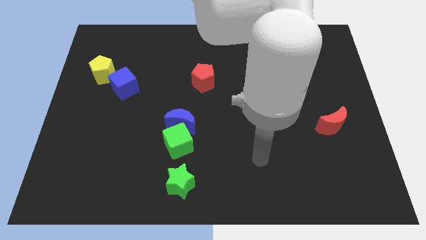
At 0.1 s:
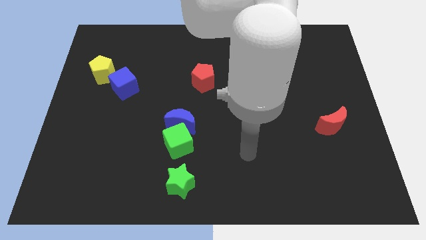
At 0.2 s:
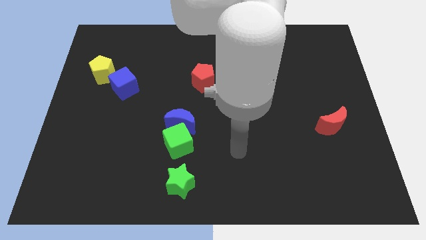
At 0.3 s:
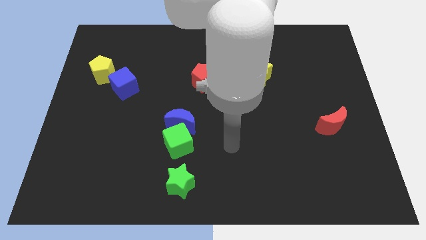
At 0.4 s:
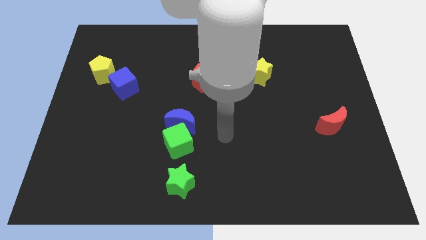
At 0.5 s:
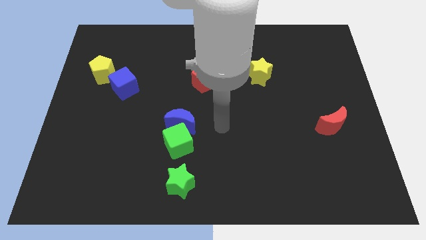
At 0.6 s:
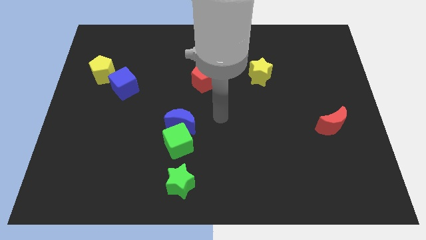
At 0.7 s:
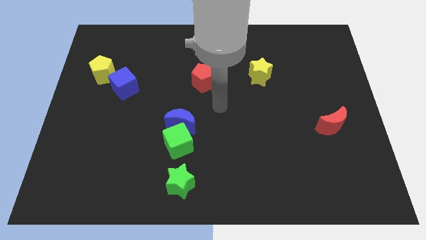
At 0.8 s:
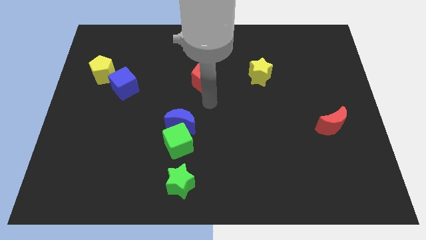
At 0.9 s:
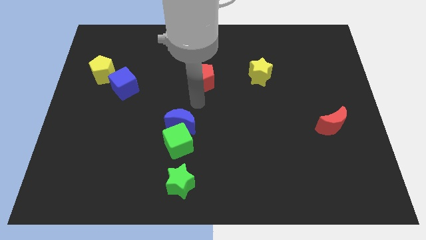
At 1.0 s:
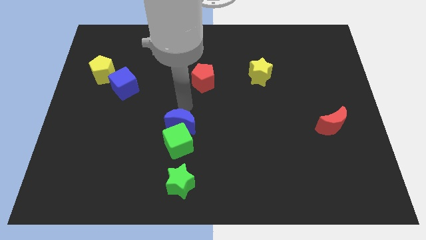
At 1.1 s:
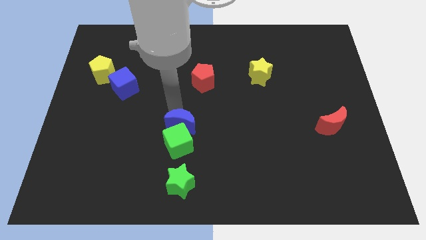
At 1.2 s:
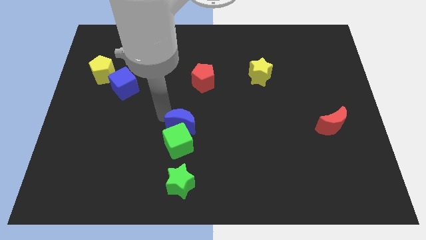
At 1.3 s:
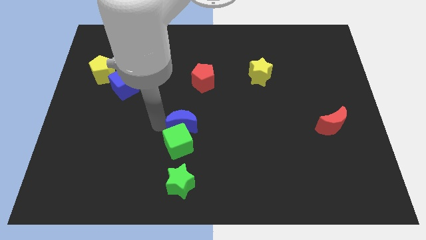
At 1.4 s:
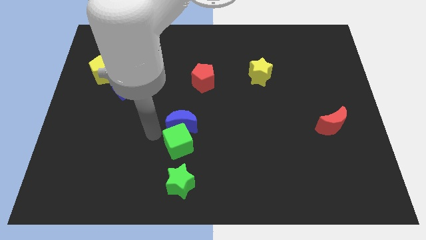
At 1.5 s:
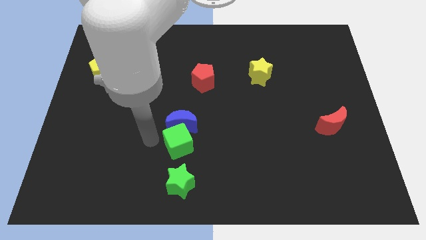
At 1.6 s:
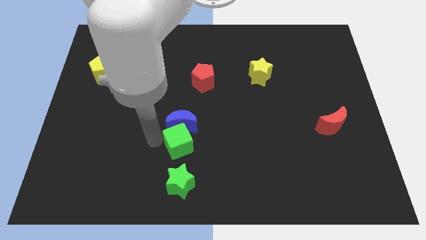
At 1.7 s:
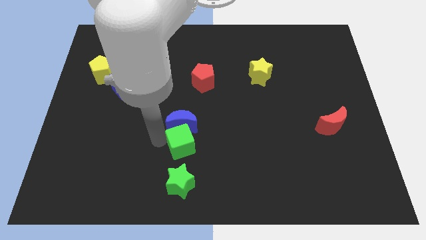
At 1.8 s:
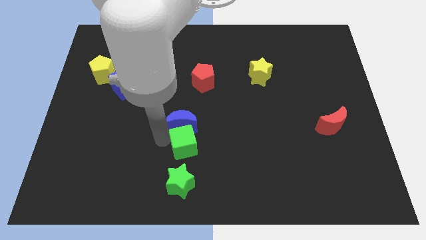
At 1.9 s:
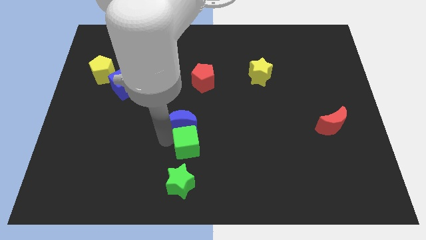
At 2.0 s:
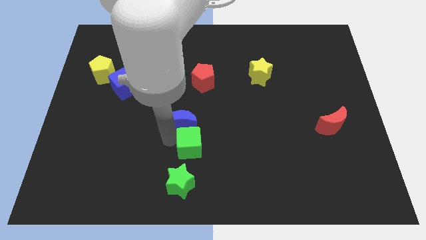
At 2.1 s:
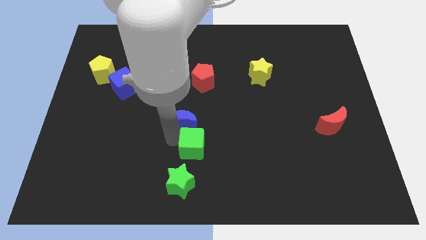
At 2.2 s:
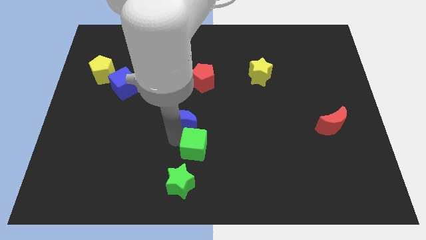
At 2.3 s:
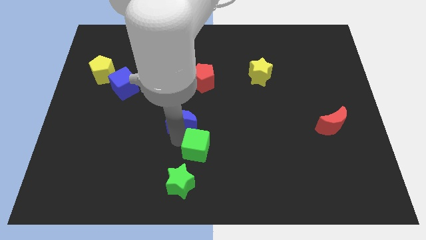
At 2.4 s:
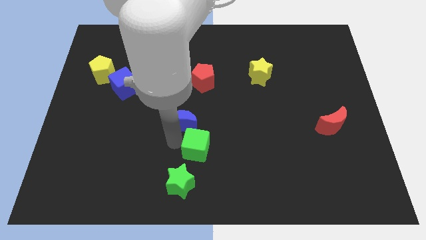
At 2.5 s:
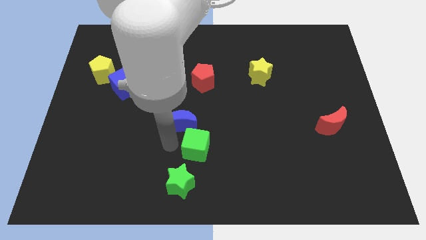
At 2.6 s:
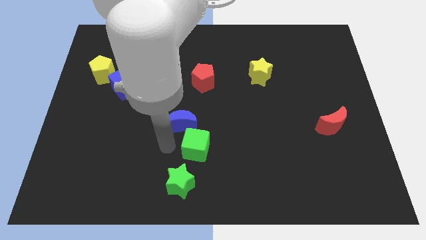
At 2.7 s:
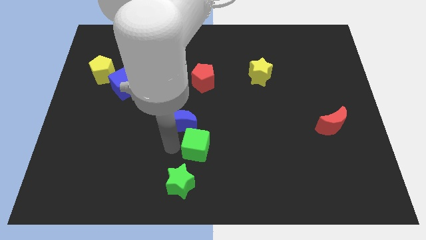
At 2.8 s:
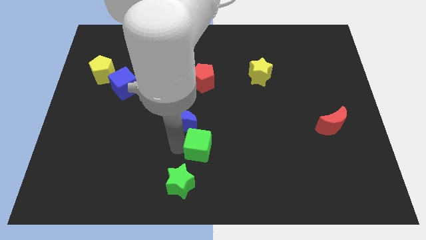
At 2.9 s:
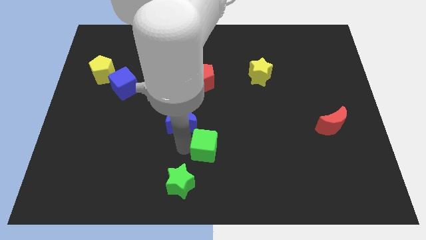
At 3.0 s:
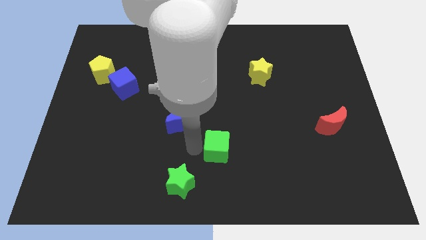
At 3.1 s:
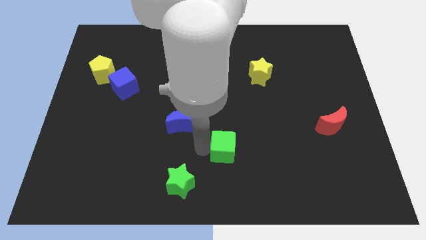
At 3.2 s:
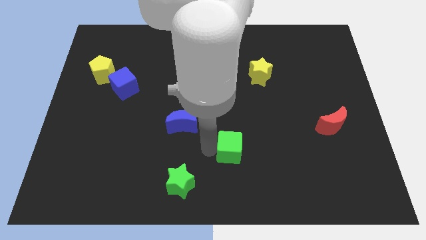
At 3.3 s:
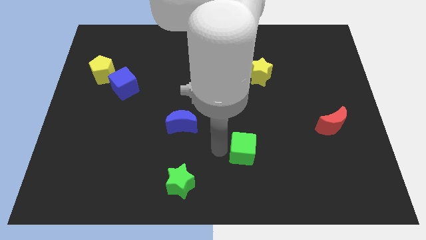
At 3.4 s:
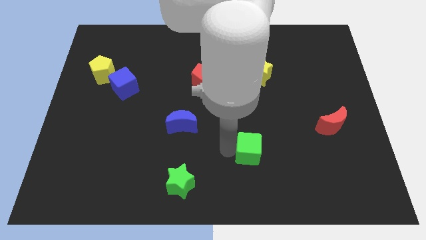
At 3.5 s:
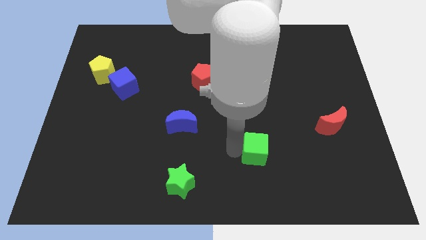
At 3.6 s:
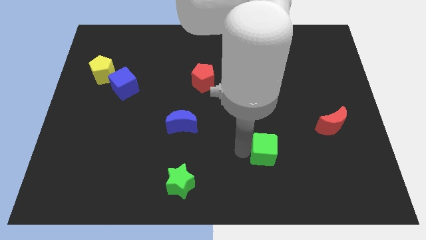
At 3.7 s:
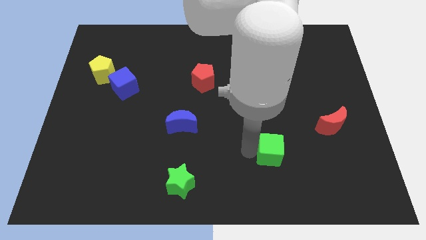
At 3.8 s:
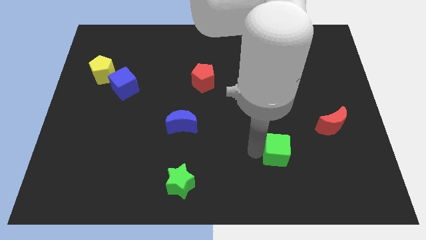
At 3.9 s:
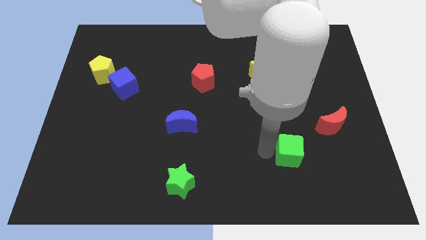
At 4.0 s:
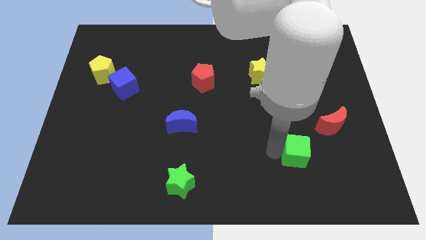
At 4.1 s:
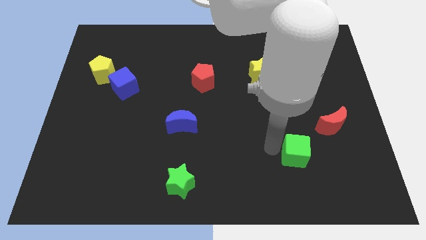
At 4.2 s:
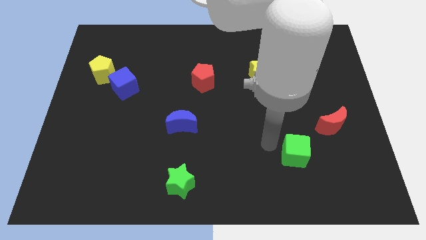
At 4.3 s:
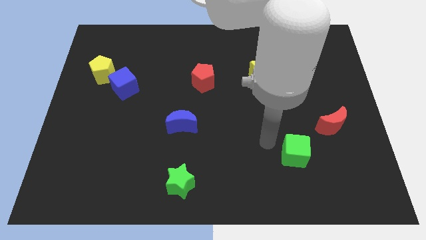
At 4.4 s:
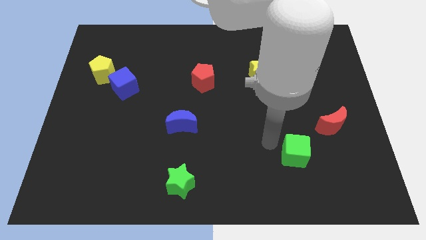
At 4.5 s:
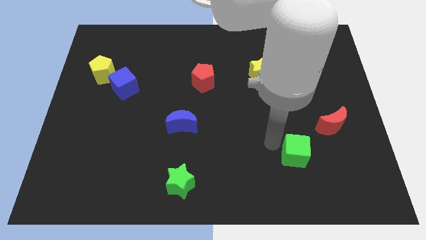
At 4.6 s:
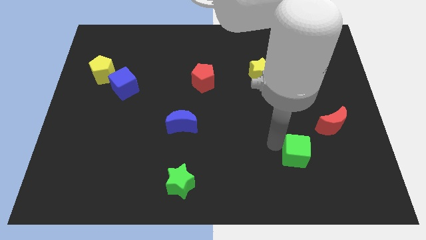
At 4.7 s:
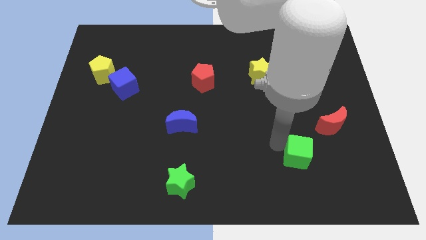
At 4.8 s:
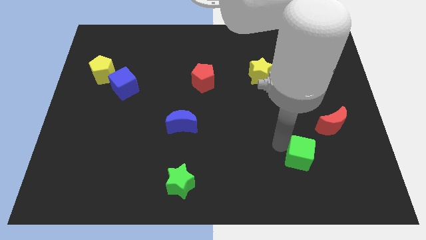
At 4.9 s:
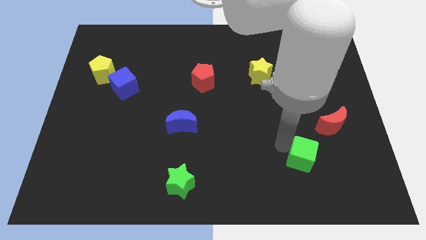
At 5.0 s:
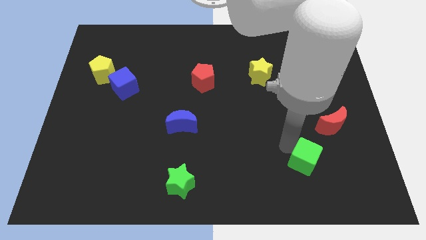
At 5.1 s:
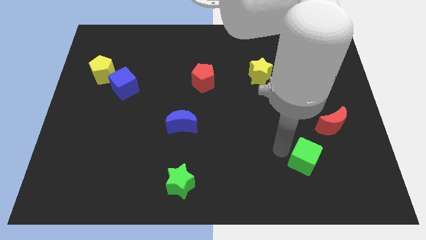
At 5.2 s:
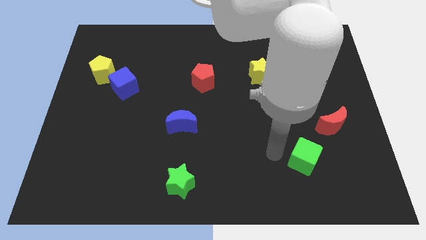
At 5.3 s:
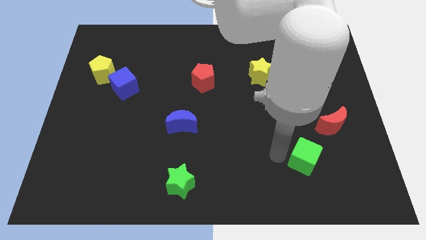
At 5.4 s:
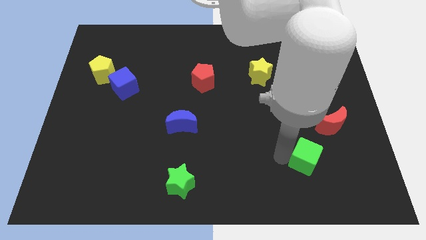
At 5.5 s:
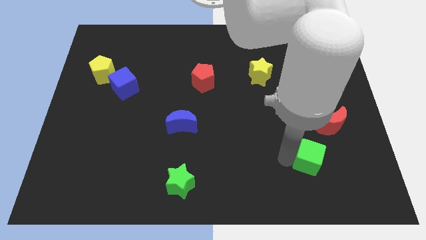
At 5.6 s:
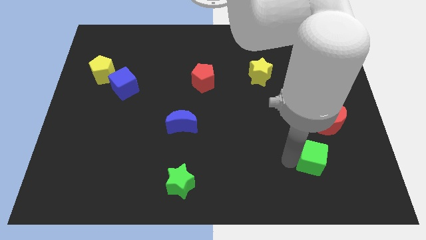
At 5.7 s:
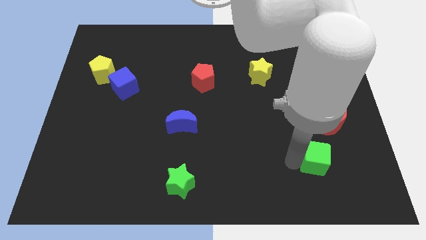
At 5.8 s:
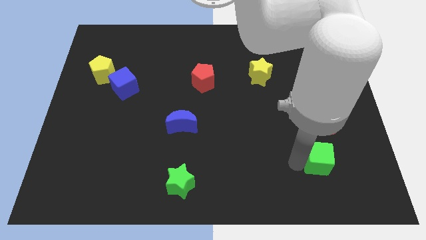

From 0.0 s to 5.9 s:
move the green cube to the bottom of the red moon

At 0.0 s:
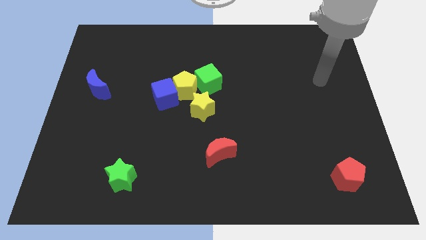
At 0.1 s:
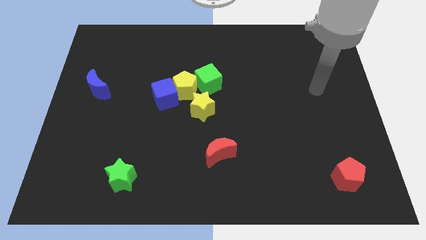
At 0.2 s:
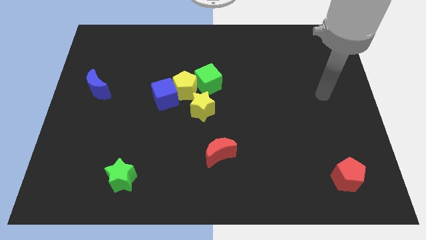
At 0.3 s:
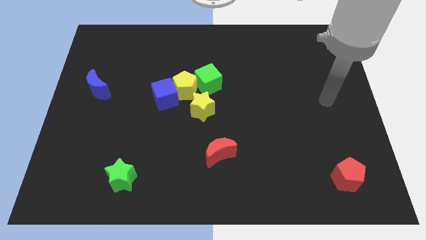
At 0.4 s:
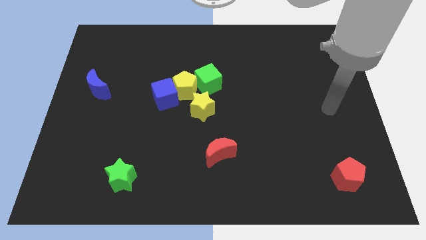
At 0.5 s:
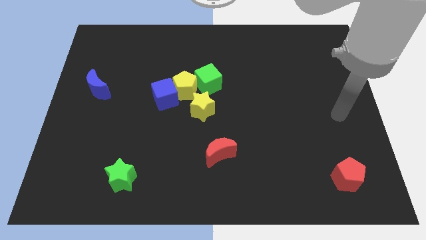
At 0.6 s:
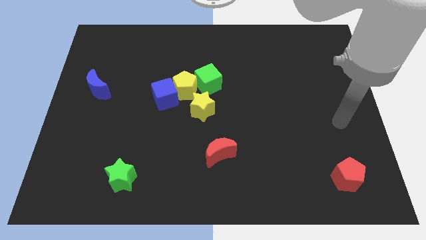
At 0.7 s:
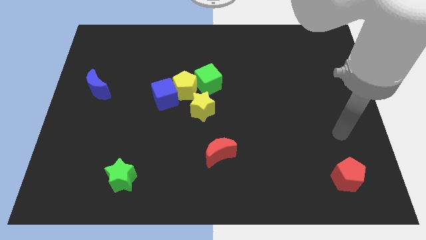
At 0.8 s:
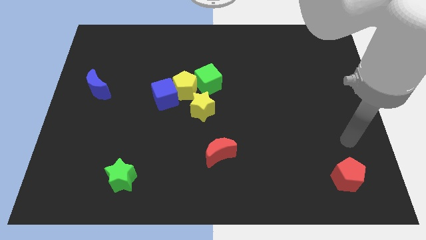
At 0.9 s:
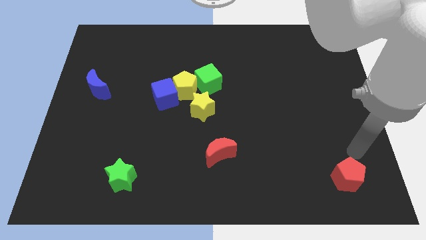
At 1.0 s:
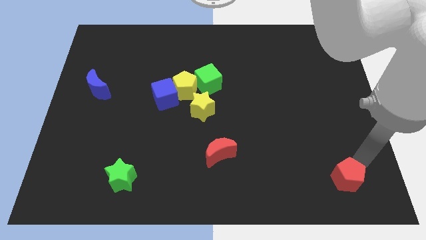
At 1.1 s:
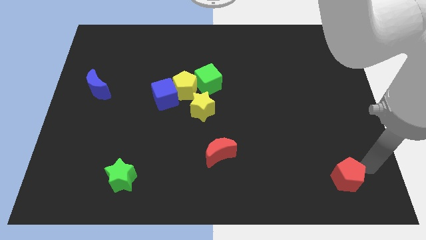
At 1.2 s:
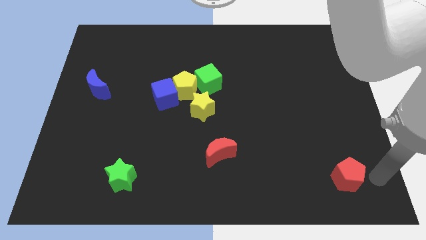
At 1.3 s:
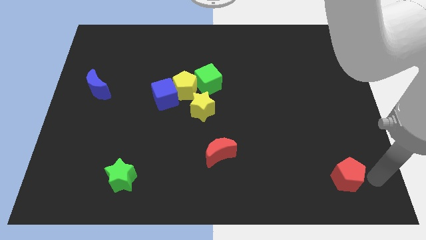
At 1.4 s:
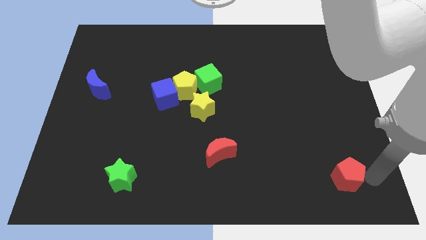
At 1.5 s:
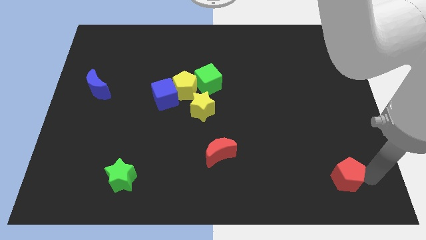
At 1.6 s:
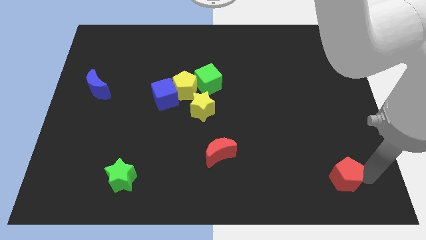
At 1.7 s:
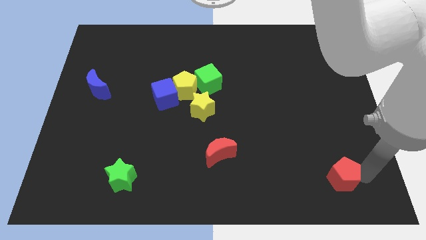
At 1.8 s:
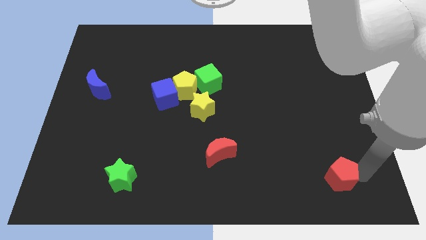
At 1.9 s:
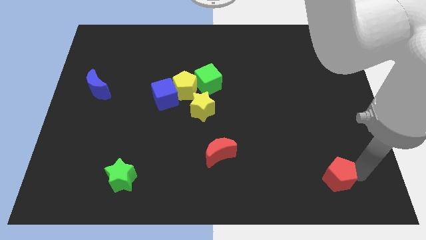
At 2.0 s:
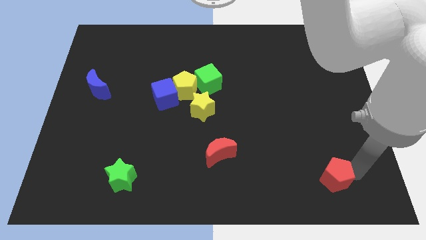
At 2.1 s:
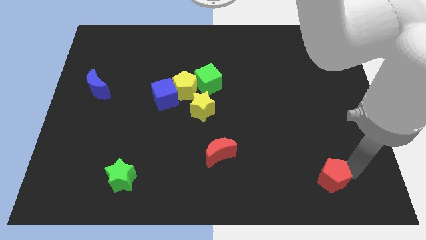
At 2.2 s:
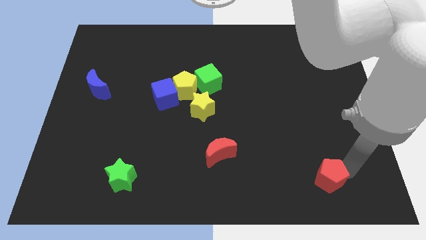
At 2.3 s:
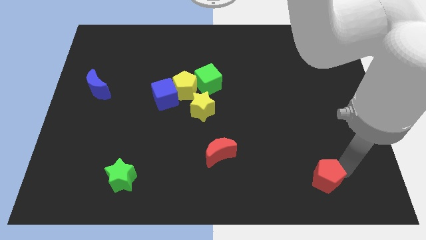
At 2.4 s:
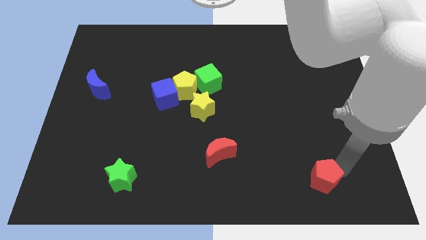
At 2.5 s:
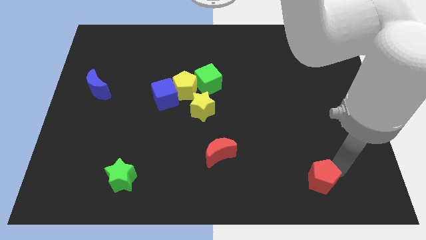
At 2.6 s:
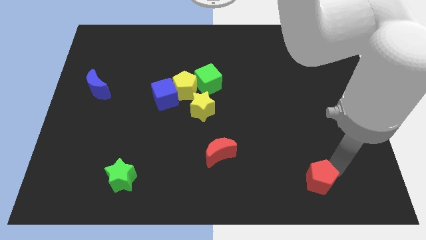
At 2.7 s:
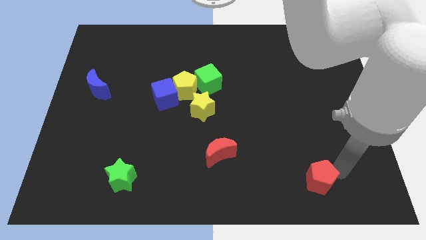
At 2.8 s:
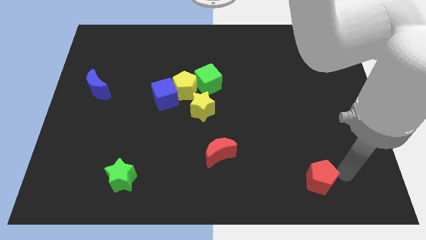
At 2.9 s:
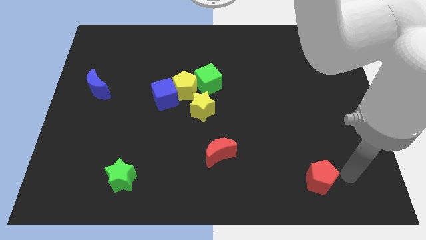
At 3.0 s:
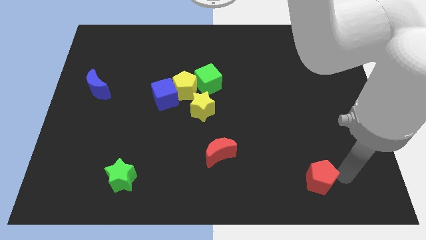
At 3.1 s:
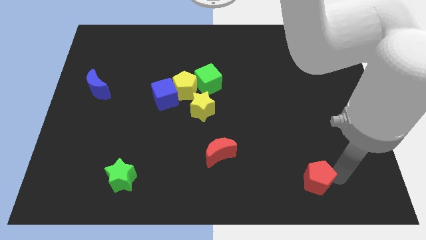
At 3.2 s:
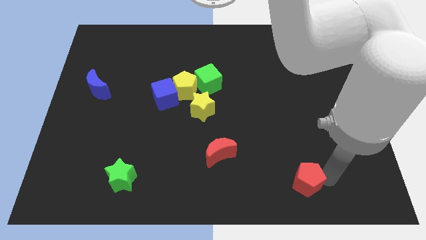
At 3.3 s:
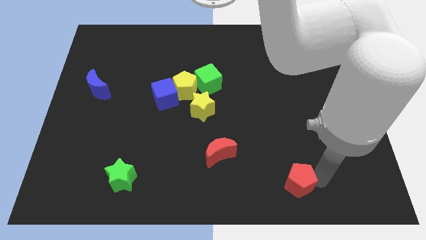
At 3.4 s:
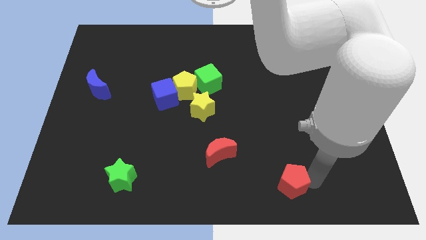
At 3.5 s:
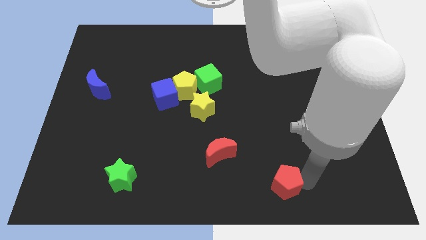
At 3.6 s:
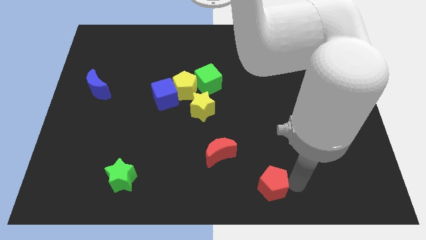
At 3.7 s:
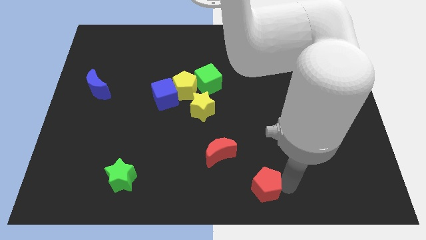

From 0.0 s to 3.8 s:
move the red pentagon to the bottom right side of the red moon
